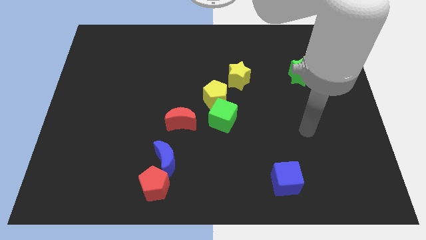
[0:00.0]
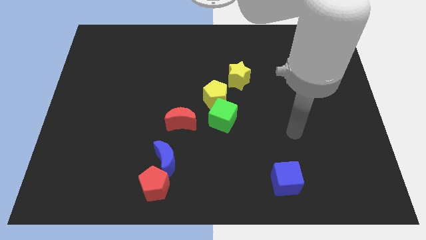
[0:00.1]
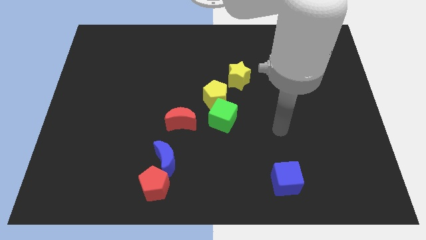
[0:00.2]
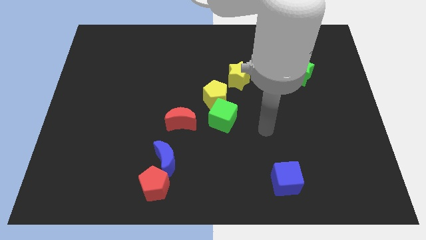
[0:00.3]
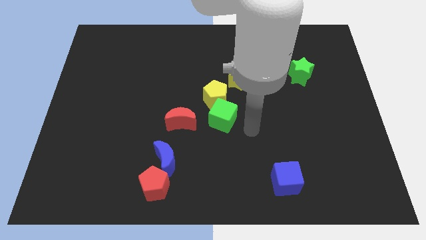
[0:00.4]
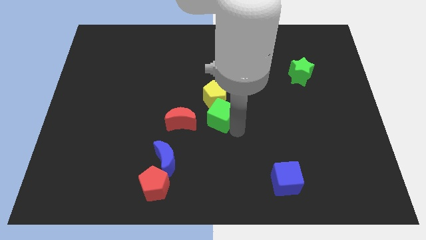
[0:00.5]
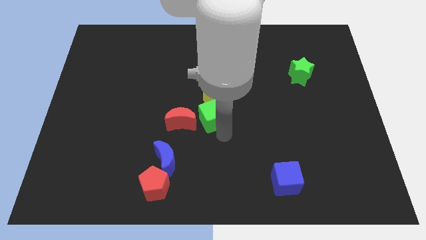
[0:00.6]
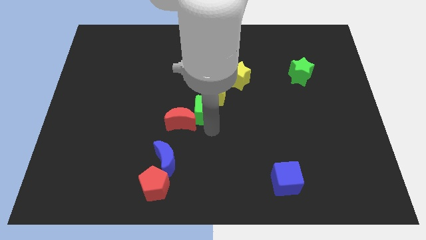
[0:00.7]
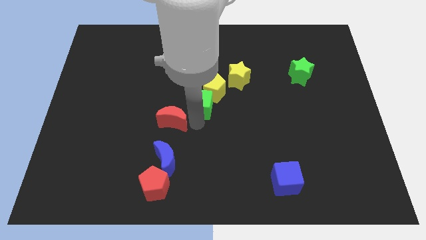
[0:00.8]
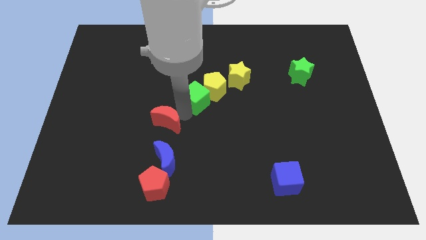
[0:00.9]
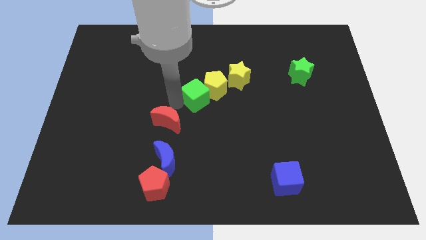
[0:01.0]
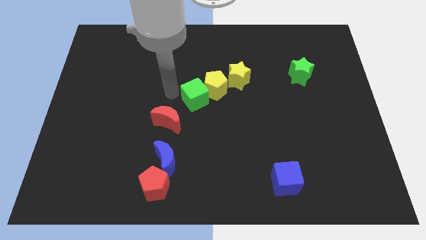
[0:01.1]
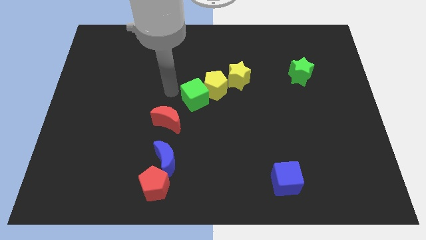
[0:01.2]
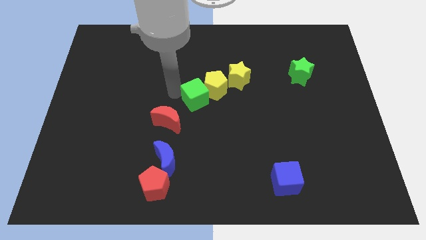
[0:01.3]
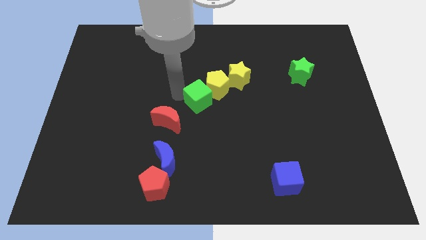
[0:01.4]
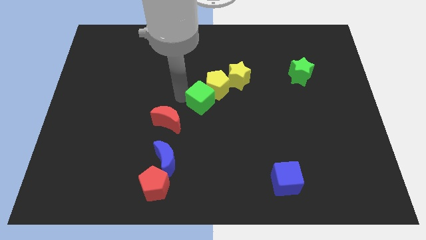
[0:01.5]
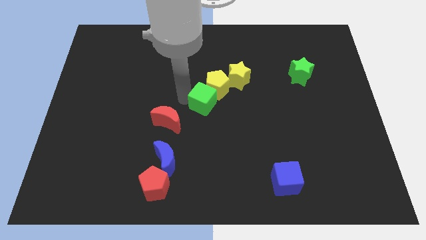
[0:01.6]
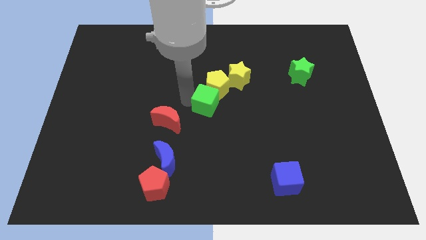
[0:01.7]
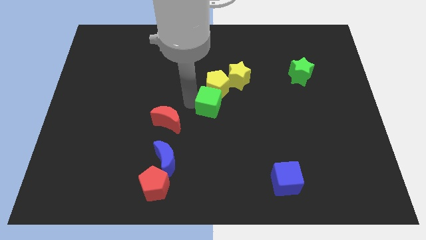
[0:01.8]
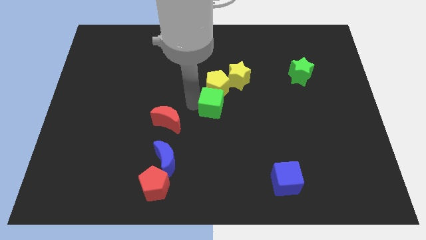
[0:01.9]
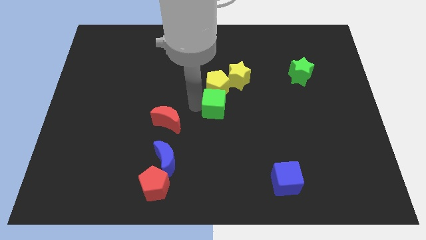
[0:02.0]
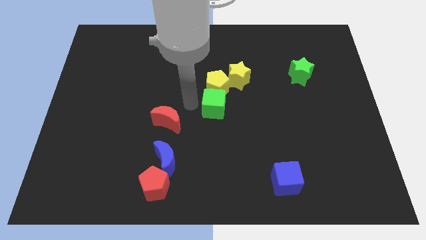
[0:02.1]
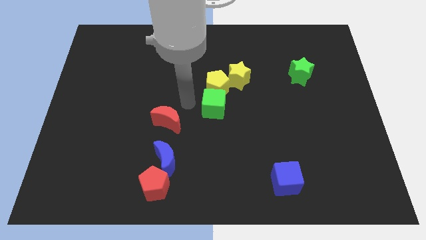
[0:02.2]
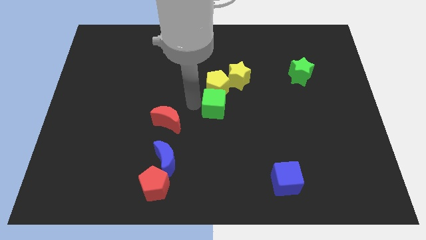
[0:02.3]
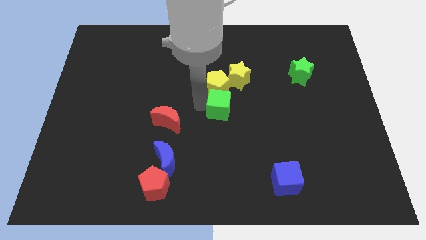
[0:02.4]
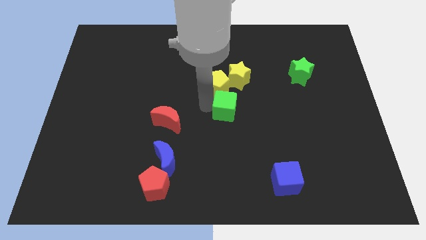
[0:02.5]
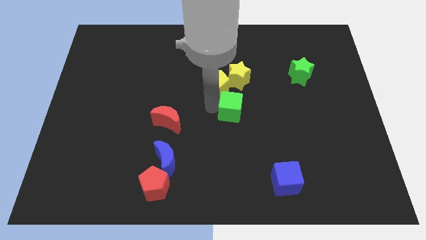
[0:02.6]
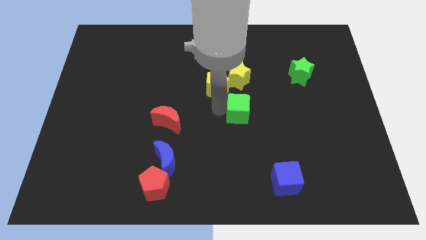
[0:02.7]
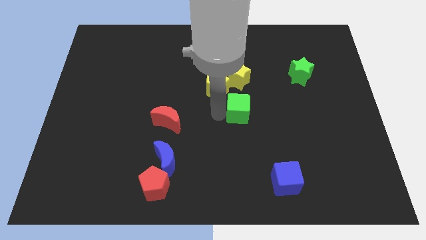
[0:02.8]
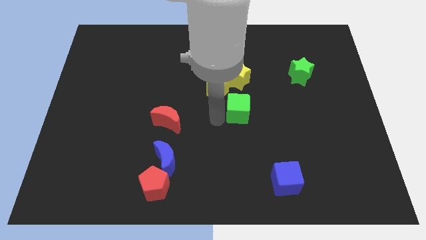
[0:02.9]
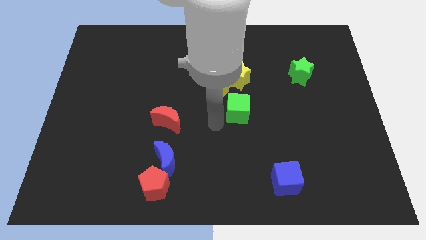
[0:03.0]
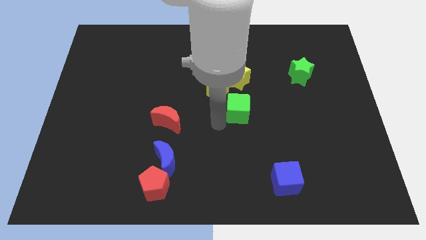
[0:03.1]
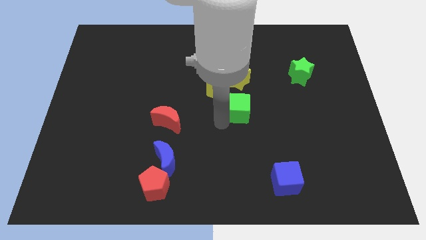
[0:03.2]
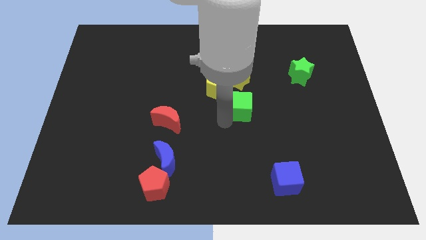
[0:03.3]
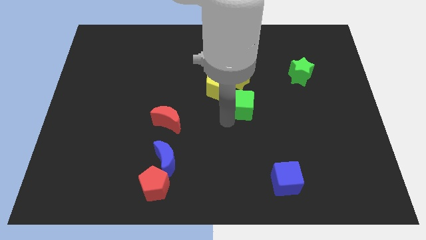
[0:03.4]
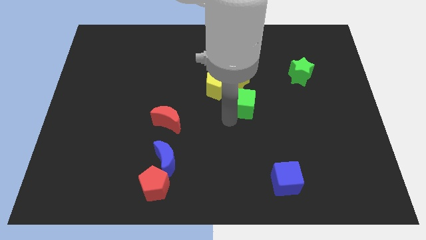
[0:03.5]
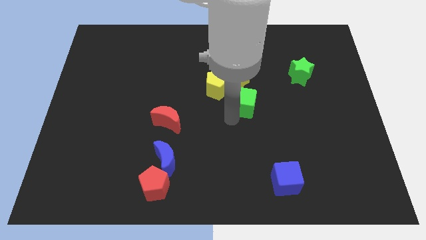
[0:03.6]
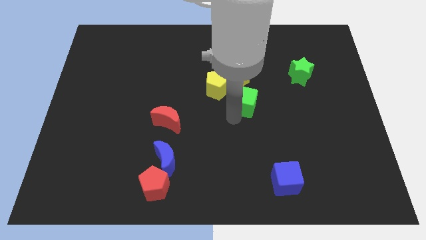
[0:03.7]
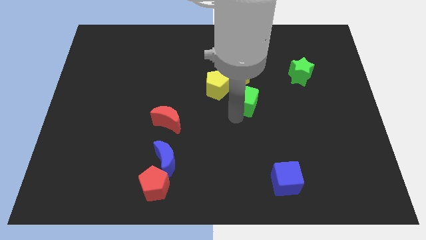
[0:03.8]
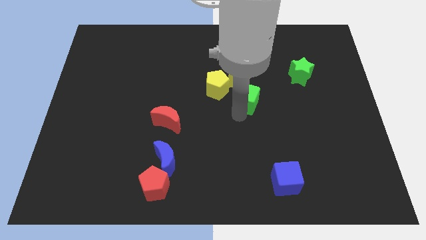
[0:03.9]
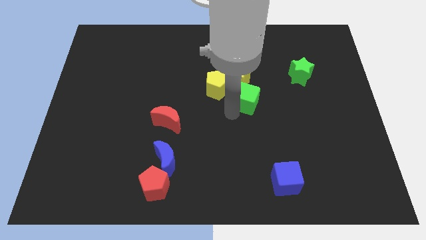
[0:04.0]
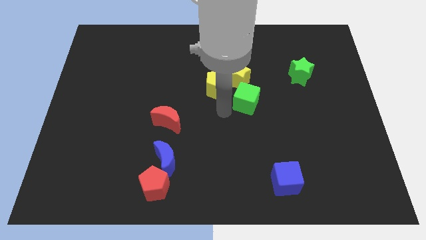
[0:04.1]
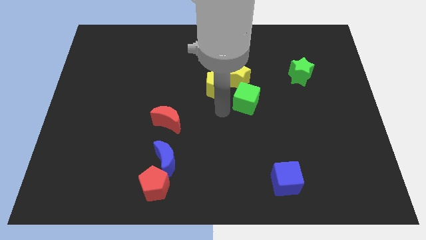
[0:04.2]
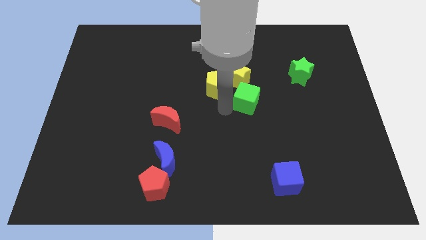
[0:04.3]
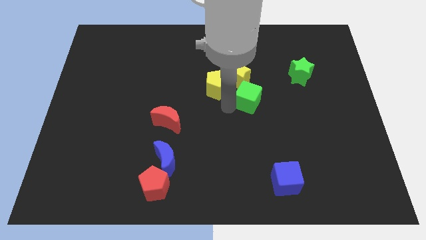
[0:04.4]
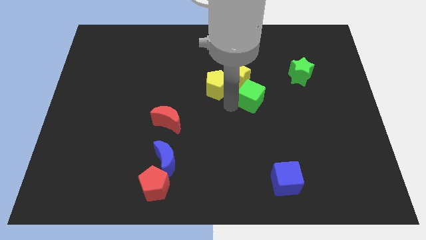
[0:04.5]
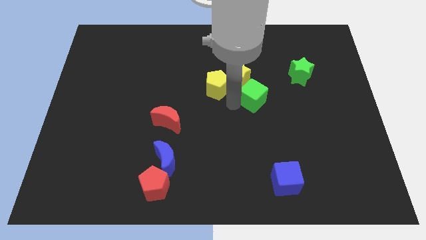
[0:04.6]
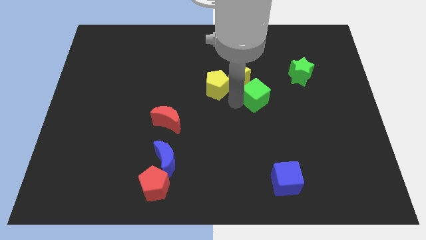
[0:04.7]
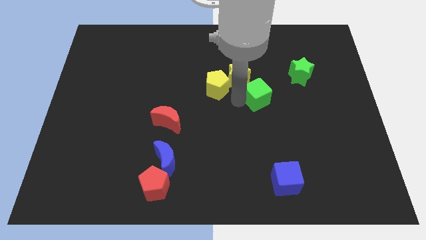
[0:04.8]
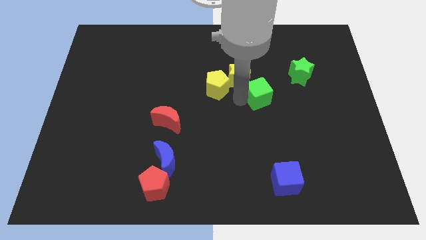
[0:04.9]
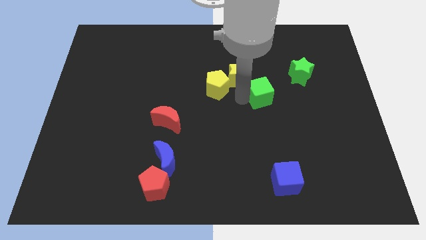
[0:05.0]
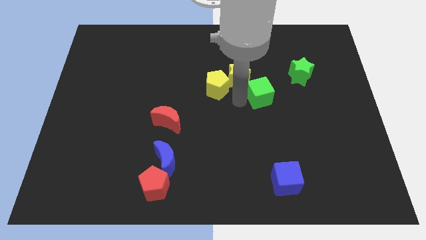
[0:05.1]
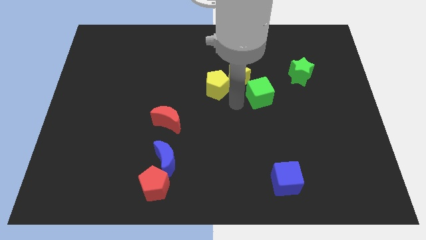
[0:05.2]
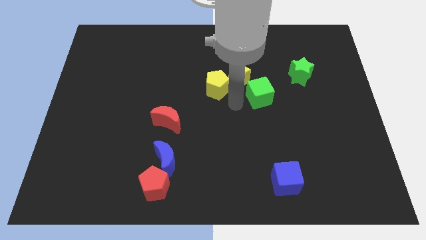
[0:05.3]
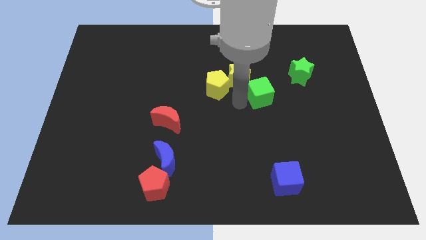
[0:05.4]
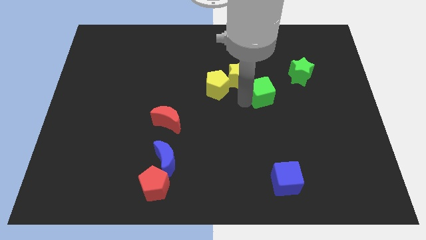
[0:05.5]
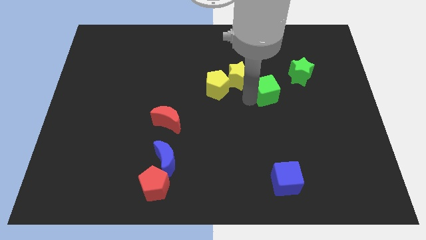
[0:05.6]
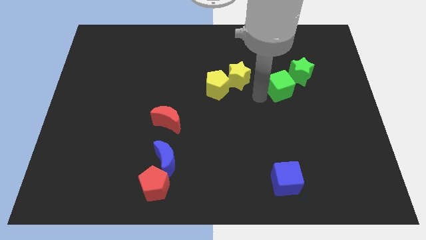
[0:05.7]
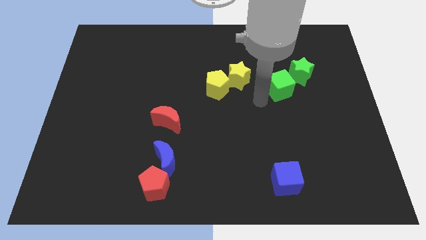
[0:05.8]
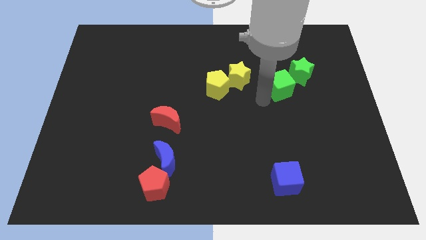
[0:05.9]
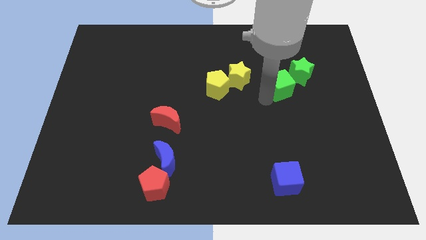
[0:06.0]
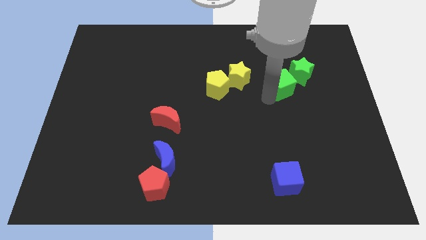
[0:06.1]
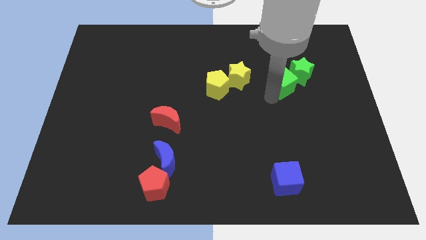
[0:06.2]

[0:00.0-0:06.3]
slide the green cube next to the green star

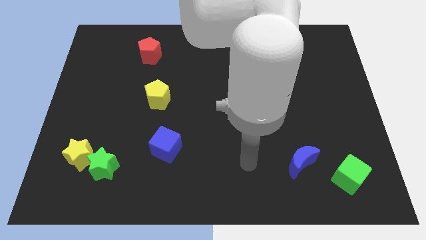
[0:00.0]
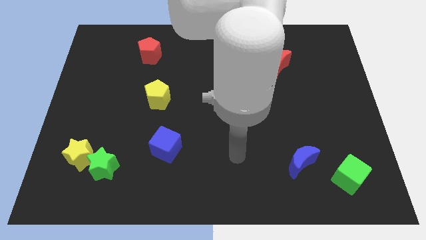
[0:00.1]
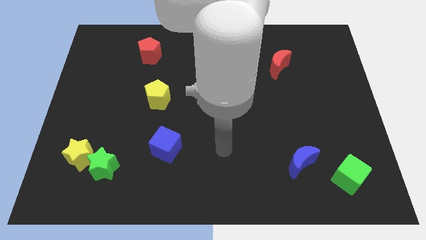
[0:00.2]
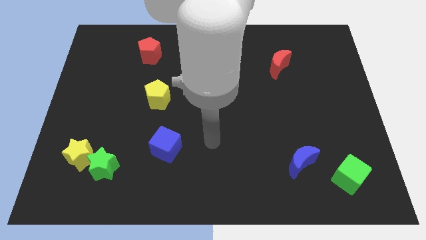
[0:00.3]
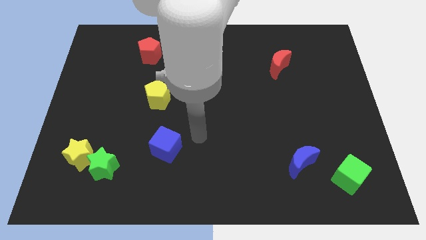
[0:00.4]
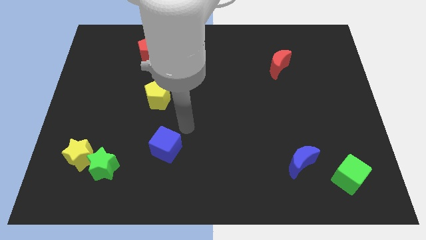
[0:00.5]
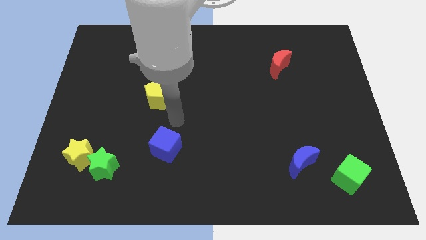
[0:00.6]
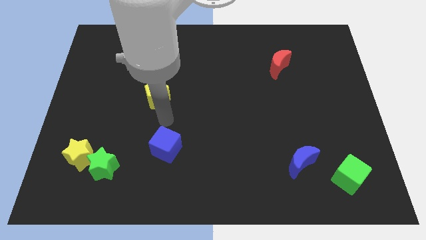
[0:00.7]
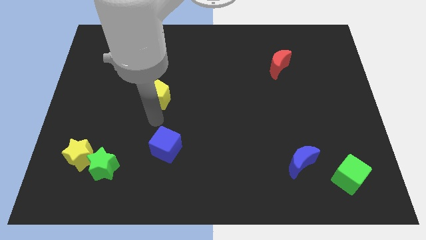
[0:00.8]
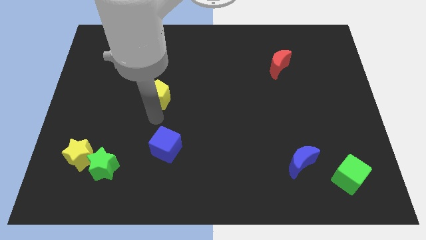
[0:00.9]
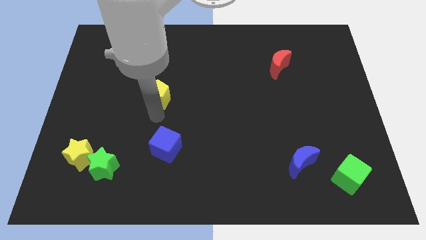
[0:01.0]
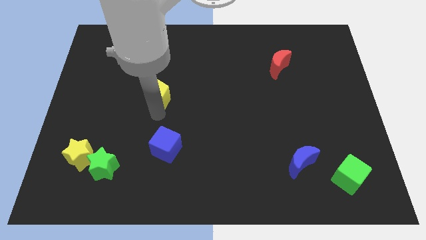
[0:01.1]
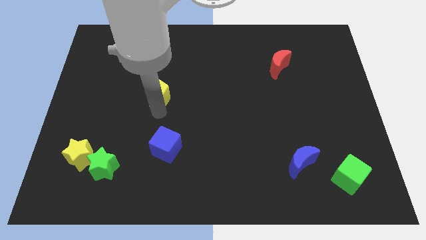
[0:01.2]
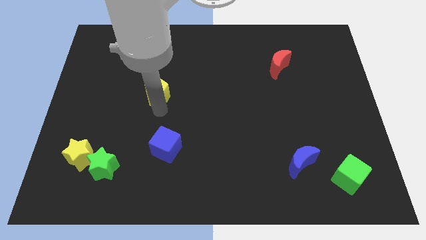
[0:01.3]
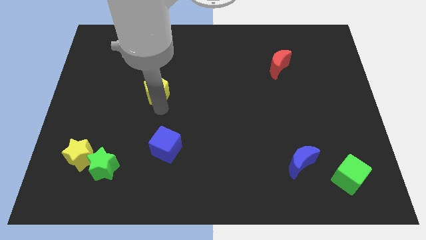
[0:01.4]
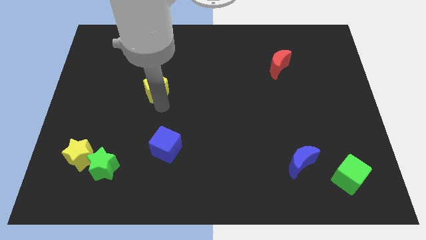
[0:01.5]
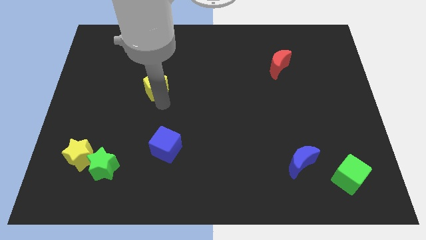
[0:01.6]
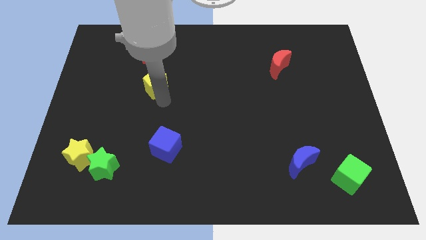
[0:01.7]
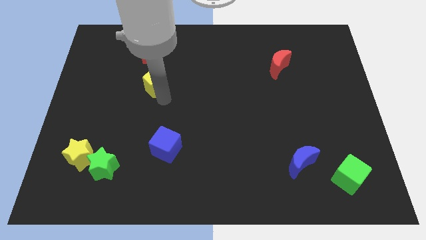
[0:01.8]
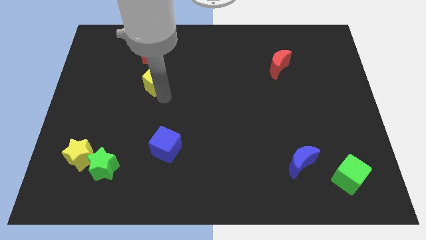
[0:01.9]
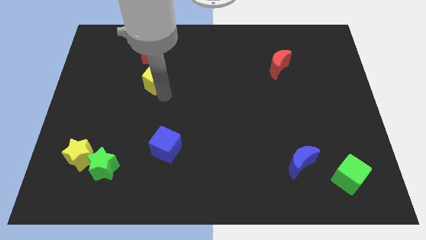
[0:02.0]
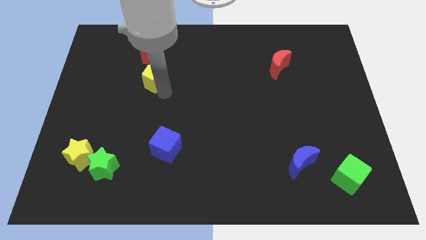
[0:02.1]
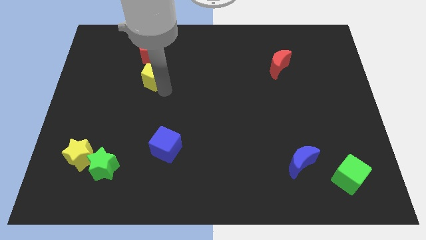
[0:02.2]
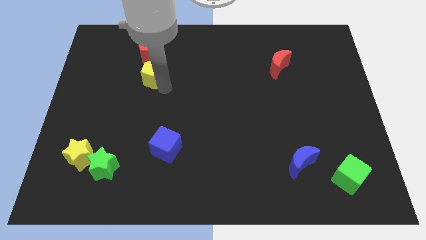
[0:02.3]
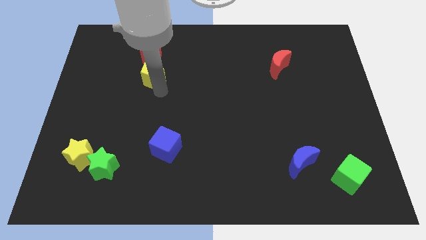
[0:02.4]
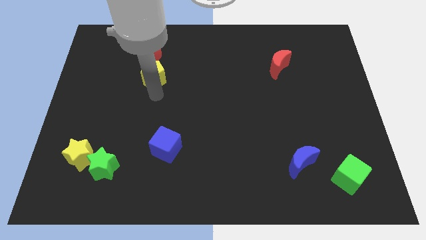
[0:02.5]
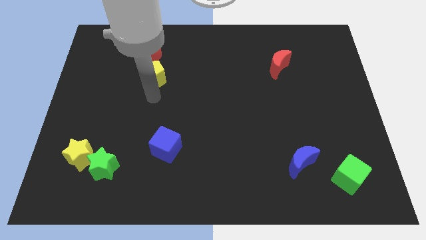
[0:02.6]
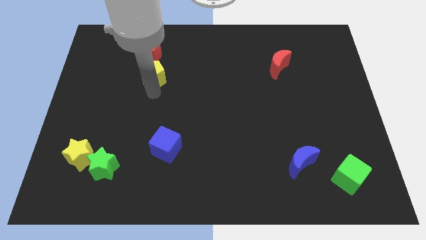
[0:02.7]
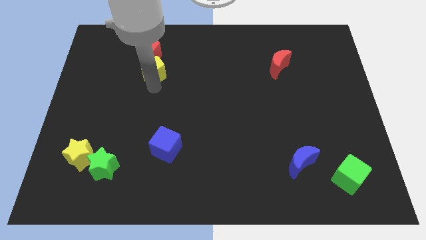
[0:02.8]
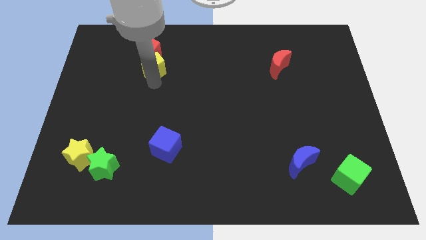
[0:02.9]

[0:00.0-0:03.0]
slide the yellow pentagon towards the red pentagon
